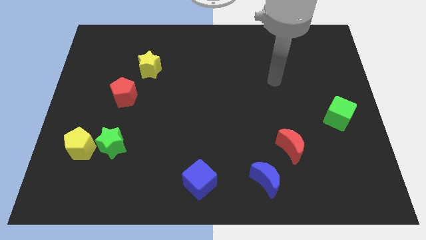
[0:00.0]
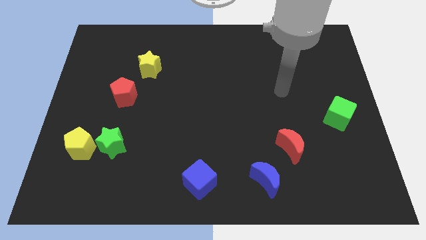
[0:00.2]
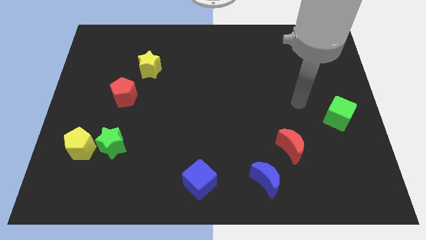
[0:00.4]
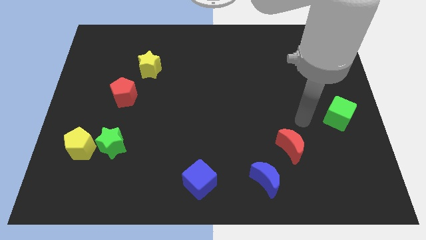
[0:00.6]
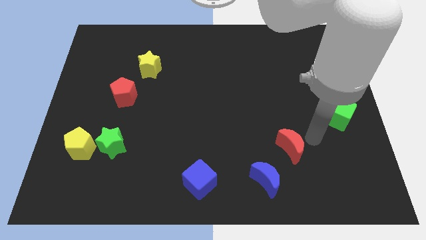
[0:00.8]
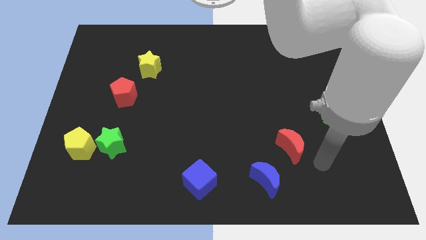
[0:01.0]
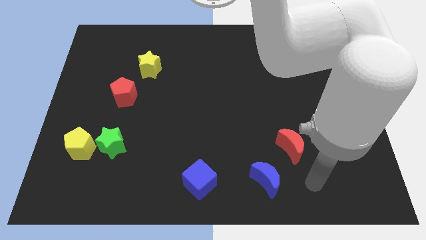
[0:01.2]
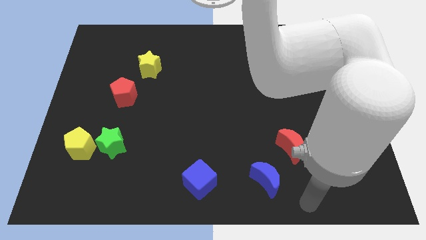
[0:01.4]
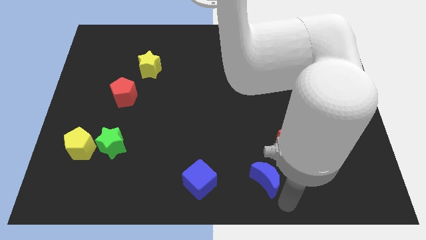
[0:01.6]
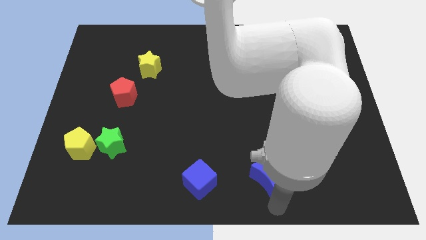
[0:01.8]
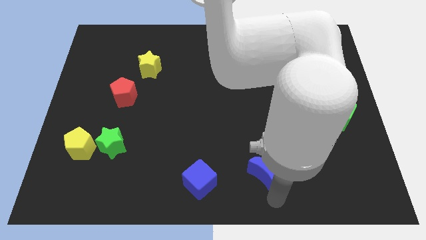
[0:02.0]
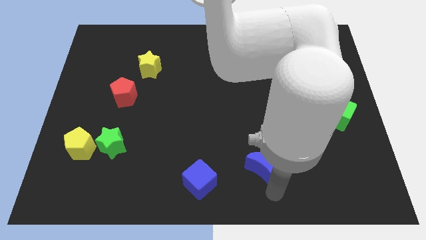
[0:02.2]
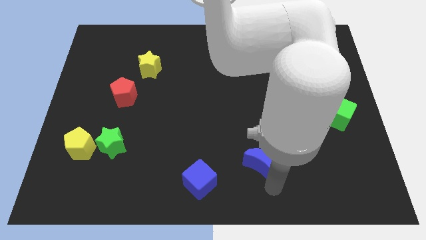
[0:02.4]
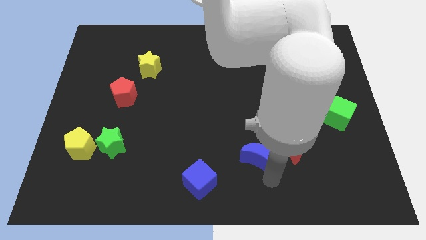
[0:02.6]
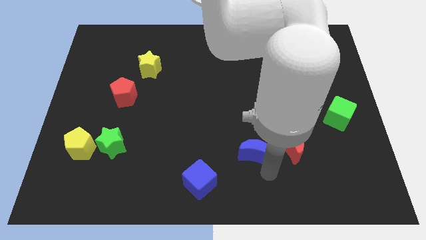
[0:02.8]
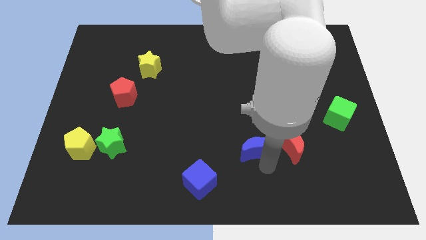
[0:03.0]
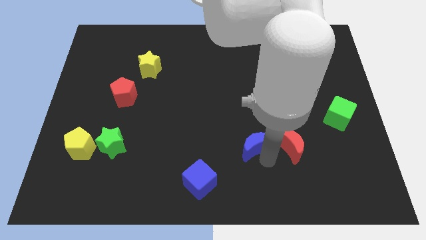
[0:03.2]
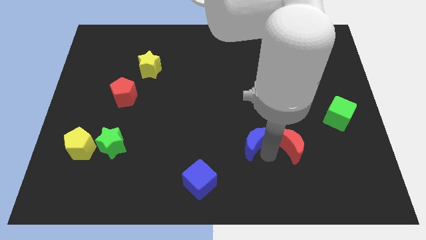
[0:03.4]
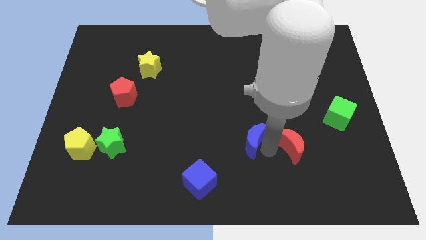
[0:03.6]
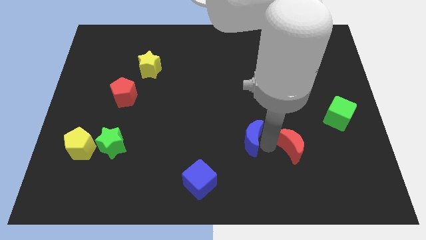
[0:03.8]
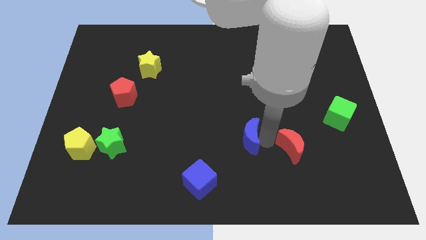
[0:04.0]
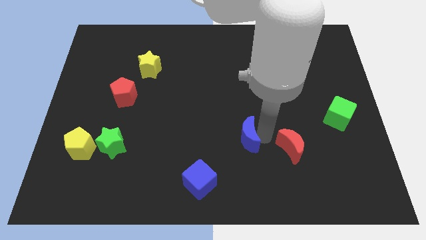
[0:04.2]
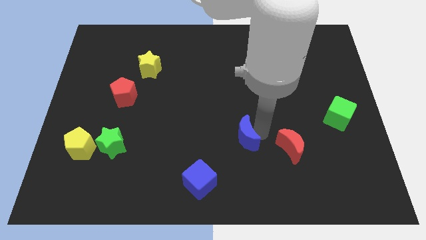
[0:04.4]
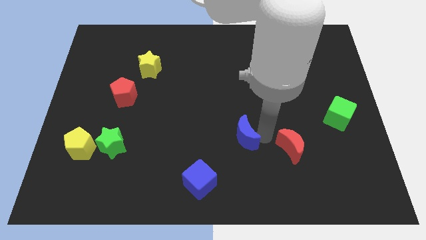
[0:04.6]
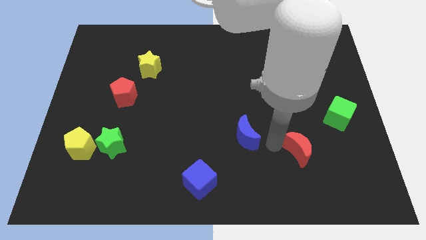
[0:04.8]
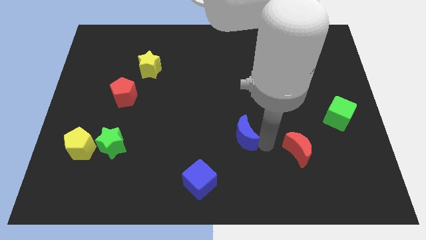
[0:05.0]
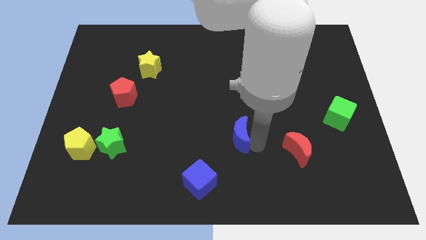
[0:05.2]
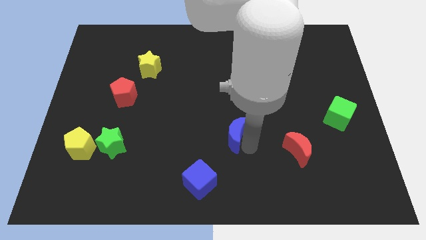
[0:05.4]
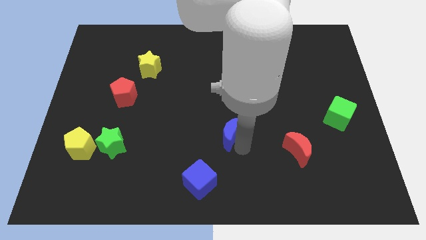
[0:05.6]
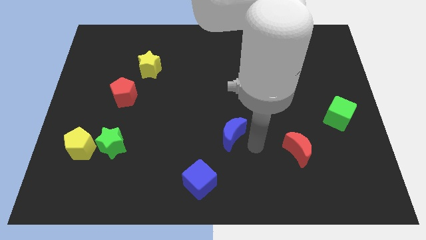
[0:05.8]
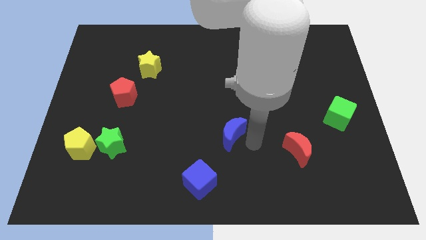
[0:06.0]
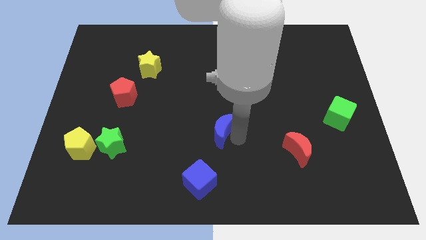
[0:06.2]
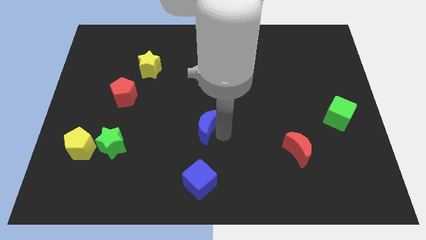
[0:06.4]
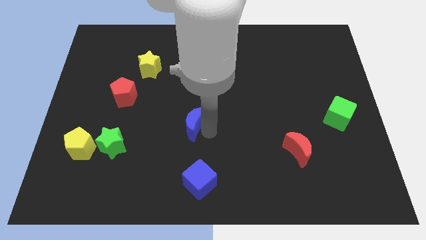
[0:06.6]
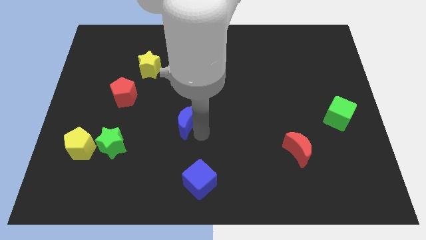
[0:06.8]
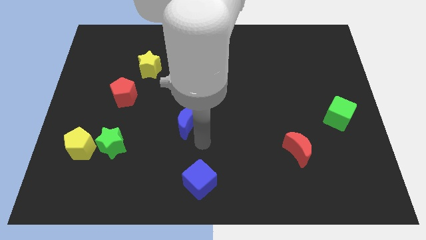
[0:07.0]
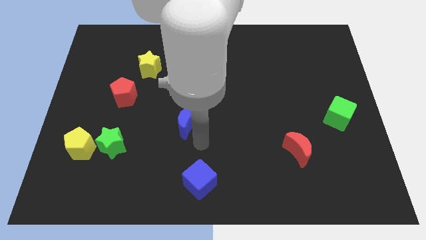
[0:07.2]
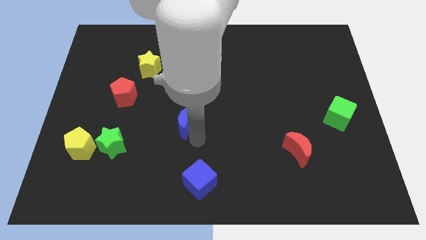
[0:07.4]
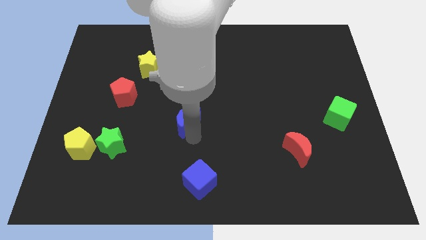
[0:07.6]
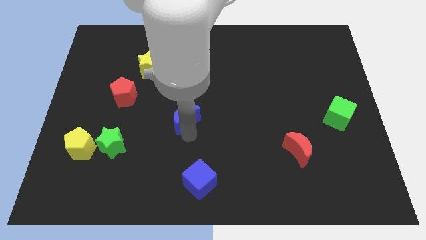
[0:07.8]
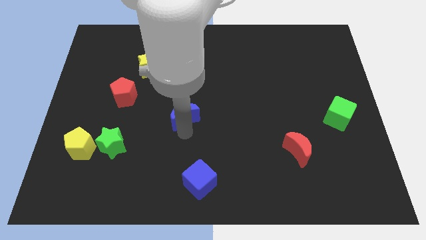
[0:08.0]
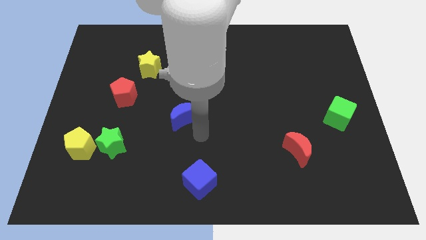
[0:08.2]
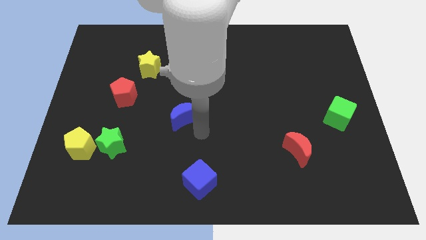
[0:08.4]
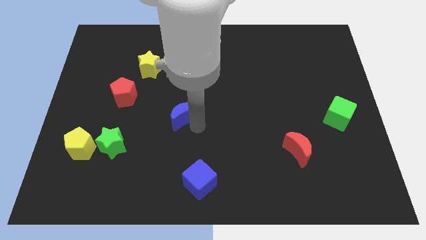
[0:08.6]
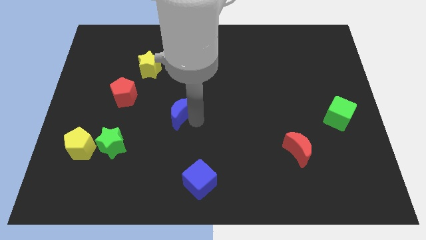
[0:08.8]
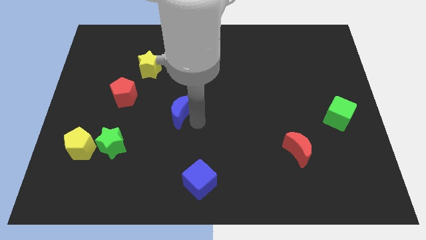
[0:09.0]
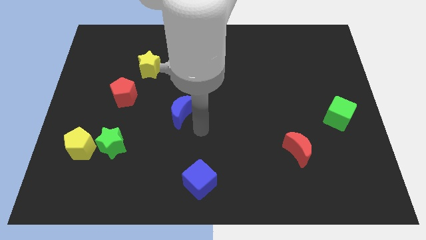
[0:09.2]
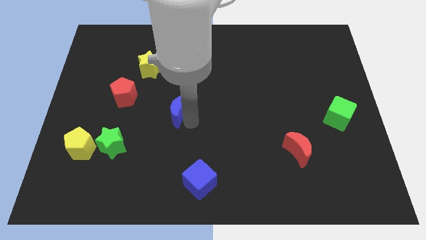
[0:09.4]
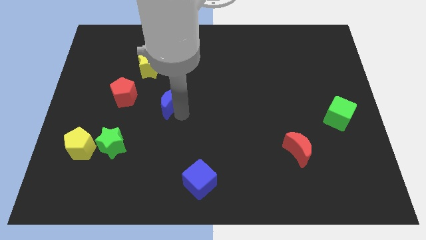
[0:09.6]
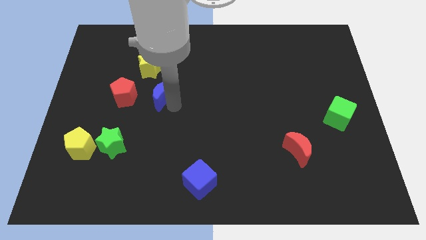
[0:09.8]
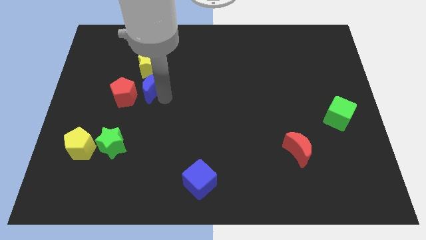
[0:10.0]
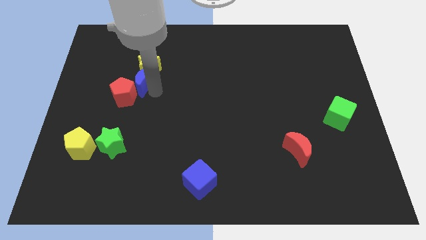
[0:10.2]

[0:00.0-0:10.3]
move the blue moon to the top of the red pentagon

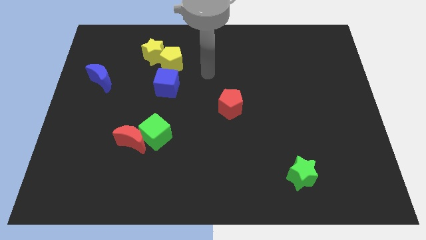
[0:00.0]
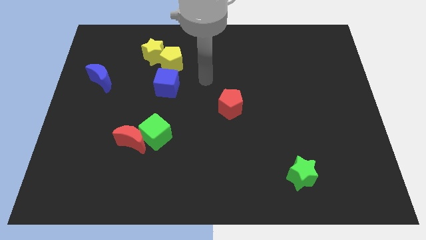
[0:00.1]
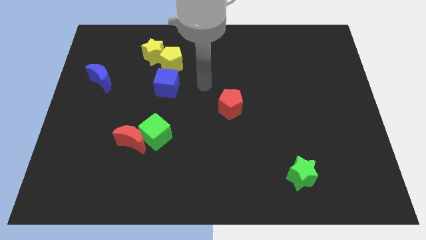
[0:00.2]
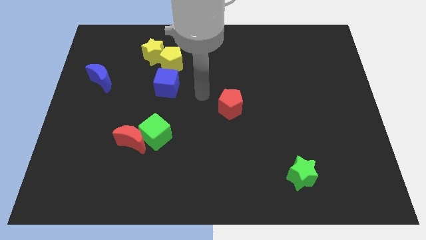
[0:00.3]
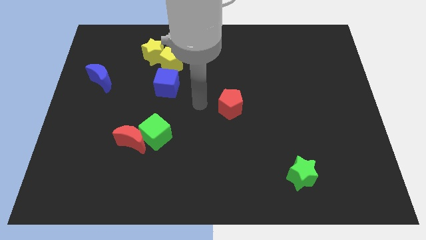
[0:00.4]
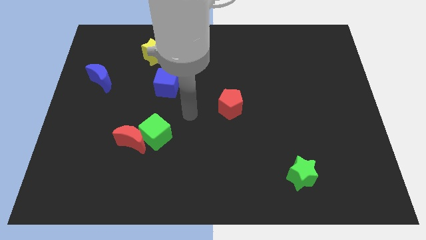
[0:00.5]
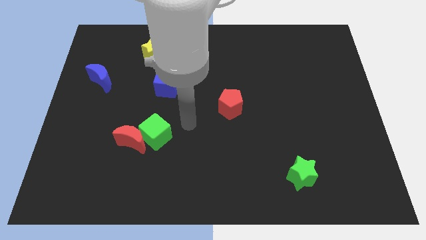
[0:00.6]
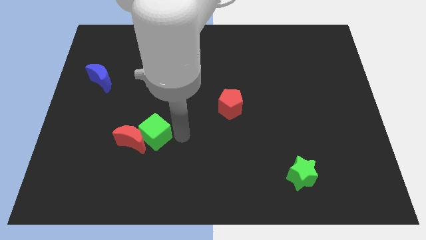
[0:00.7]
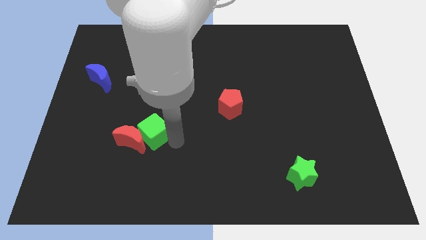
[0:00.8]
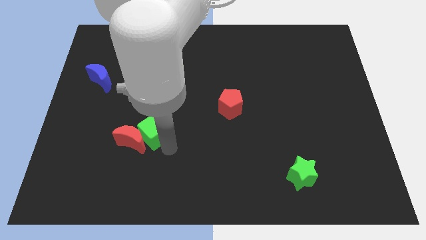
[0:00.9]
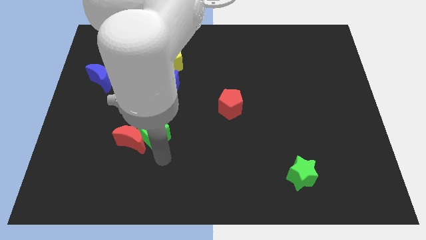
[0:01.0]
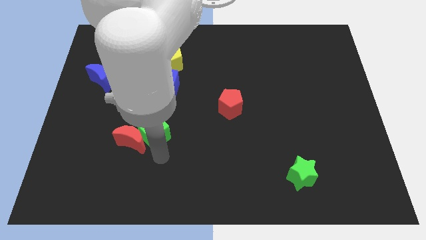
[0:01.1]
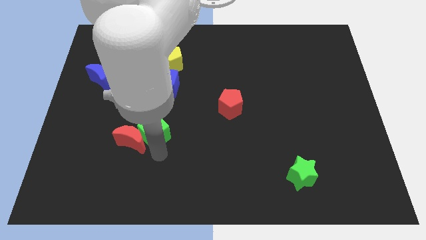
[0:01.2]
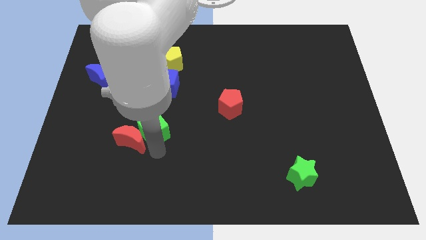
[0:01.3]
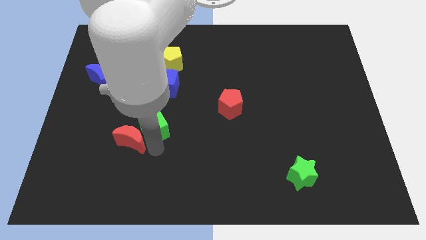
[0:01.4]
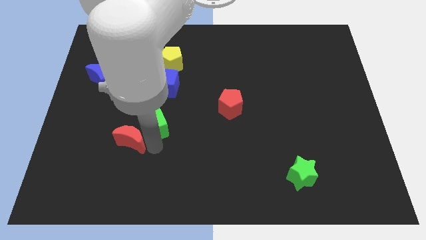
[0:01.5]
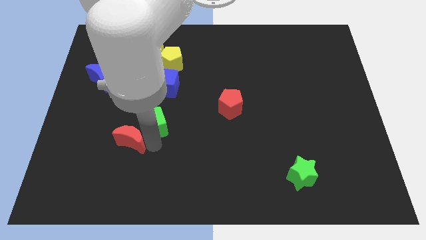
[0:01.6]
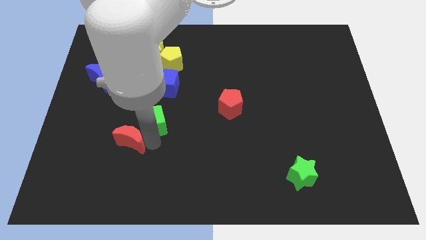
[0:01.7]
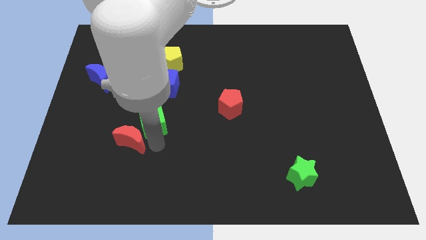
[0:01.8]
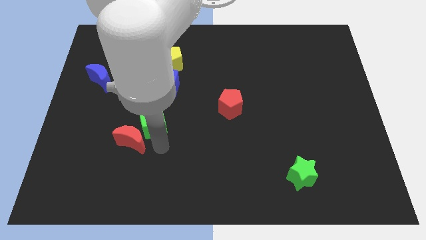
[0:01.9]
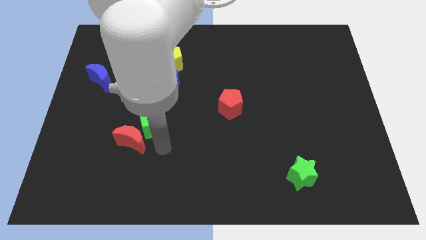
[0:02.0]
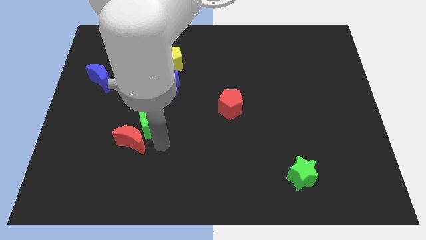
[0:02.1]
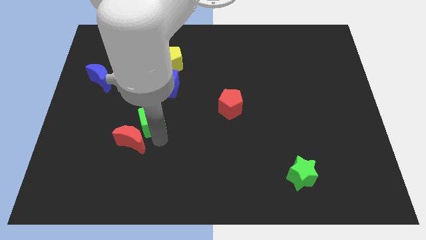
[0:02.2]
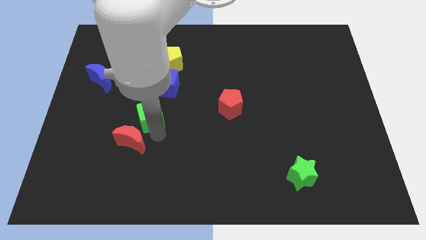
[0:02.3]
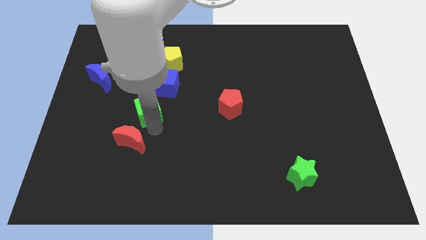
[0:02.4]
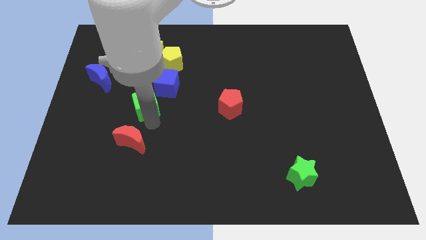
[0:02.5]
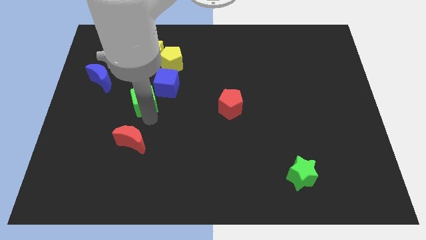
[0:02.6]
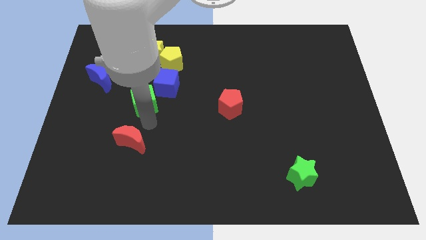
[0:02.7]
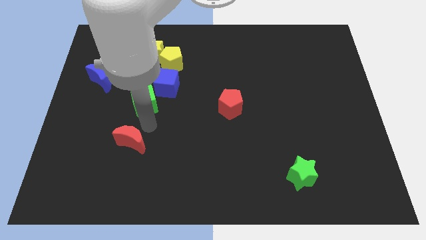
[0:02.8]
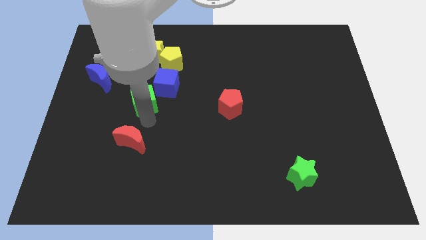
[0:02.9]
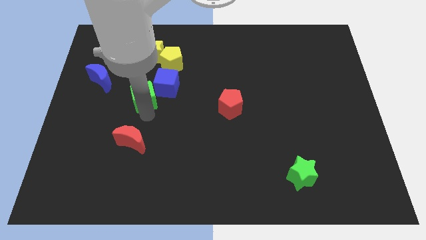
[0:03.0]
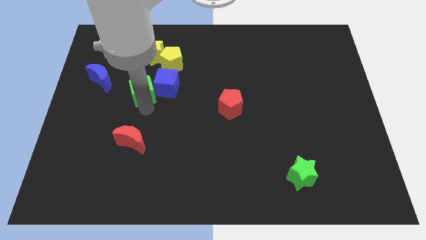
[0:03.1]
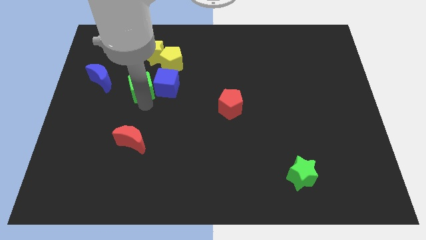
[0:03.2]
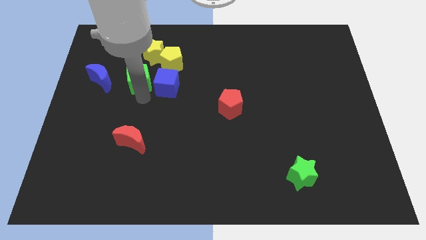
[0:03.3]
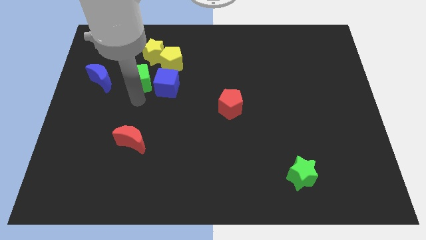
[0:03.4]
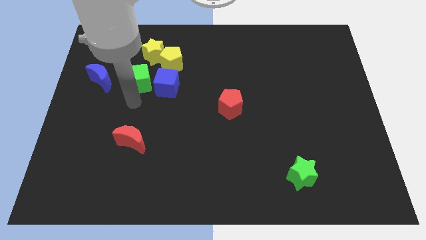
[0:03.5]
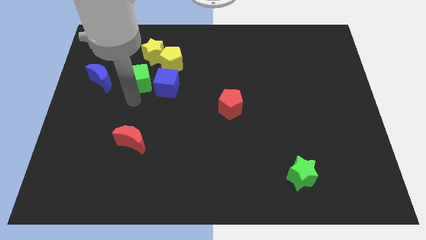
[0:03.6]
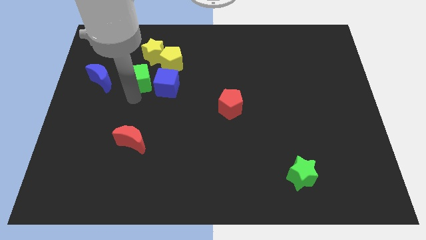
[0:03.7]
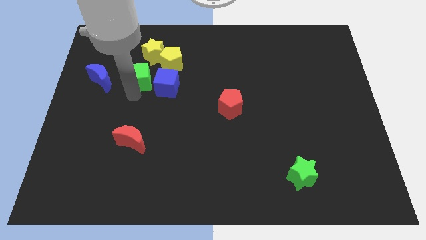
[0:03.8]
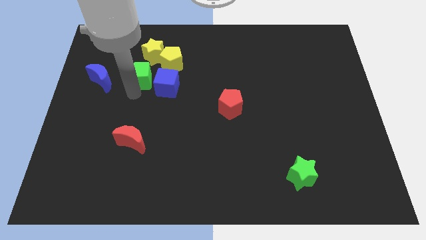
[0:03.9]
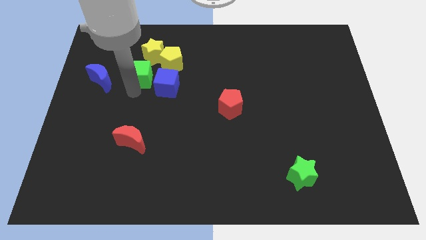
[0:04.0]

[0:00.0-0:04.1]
put the green cube just left of the yellow pentagon
